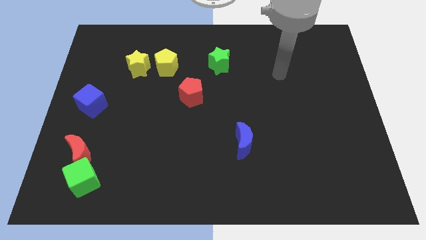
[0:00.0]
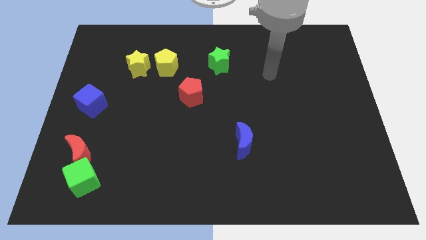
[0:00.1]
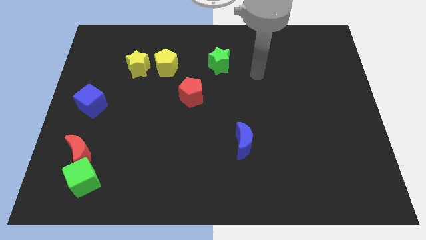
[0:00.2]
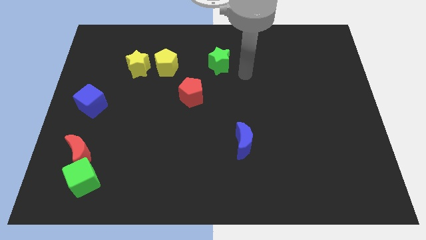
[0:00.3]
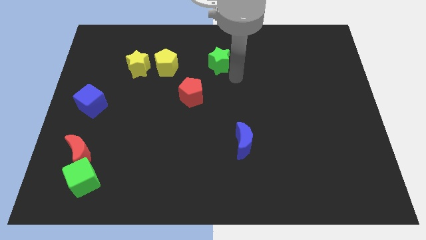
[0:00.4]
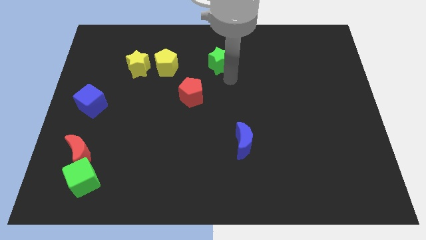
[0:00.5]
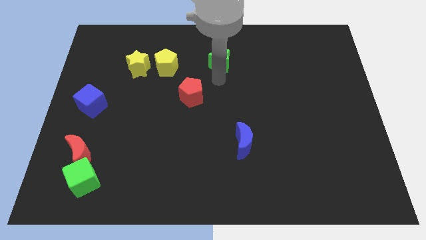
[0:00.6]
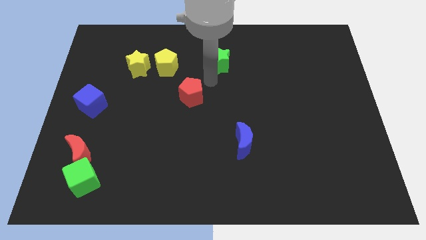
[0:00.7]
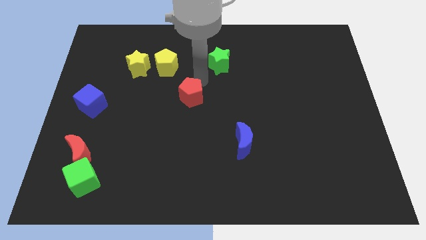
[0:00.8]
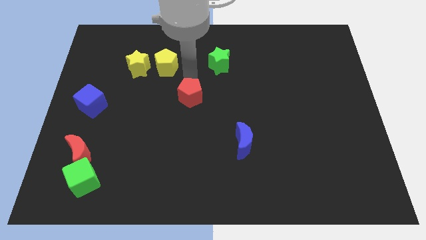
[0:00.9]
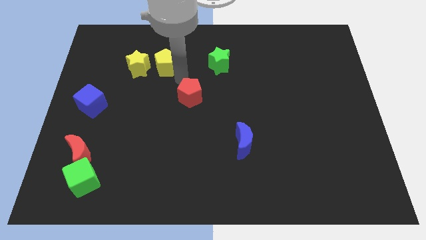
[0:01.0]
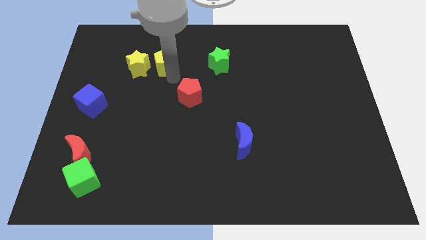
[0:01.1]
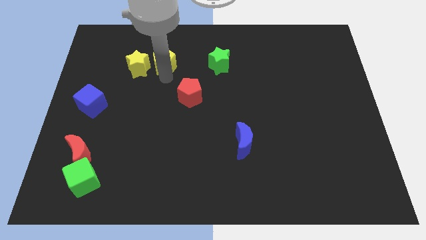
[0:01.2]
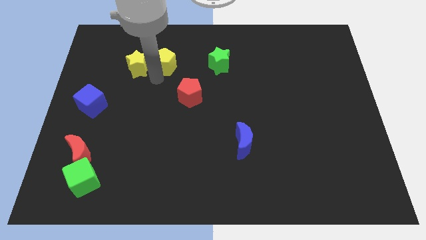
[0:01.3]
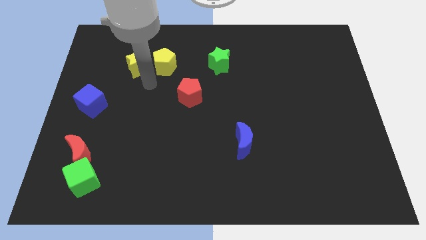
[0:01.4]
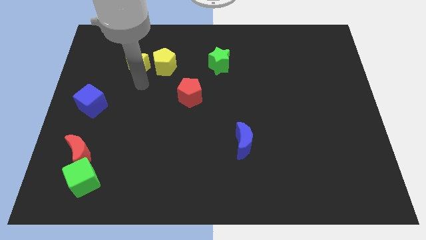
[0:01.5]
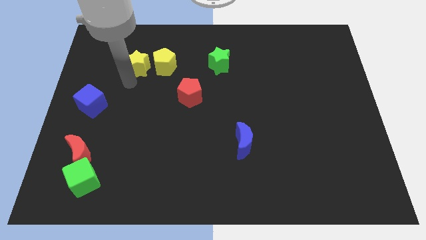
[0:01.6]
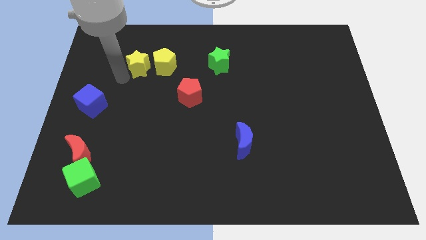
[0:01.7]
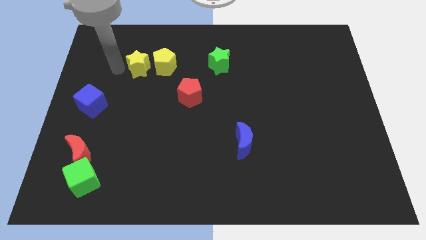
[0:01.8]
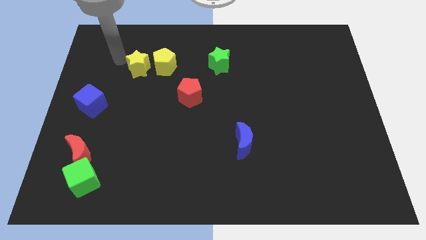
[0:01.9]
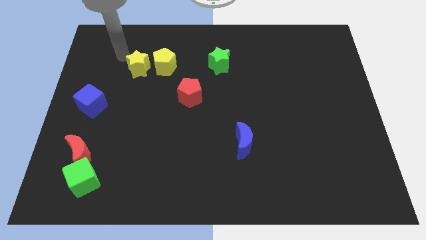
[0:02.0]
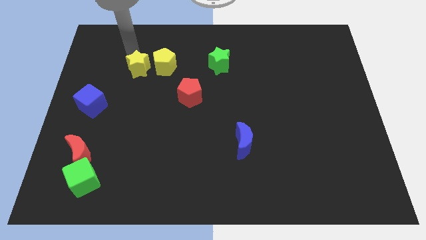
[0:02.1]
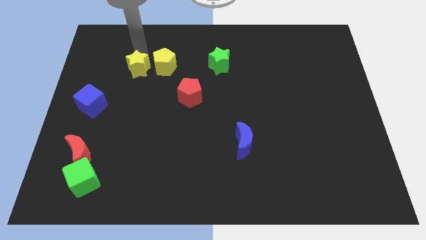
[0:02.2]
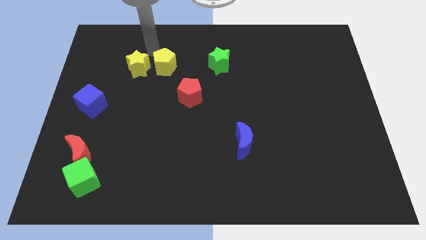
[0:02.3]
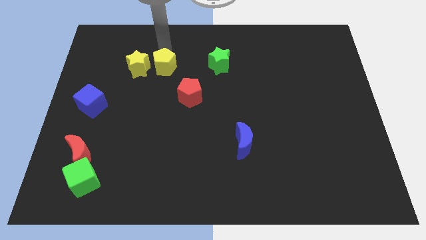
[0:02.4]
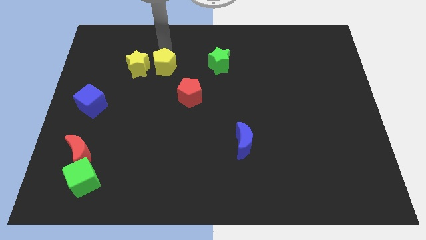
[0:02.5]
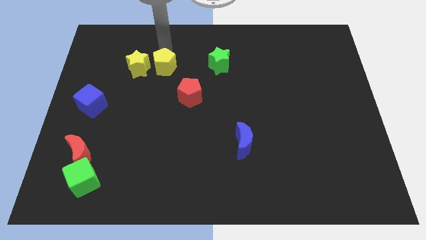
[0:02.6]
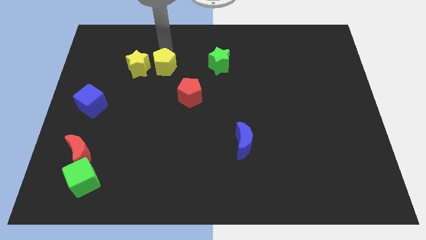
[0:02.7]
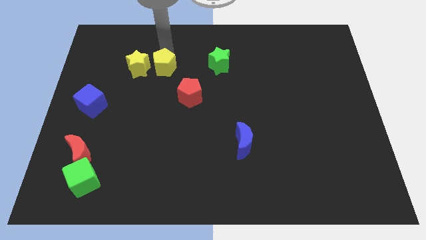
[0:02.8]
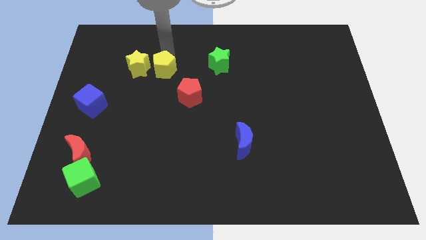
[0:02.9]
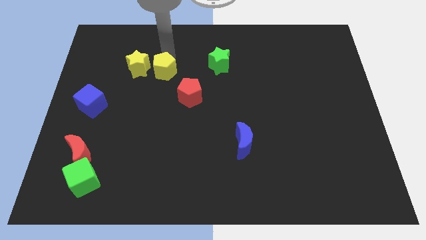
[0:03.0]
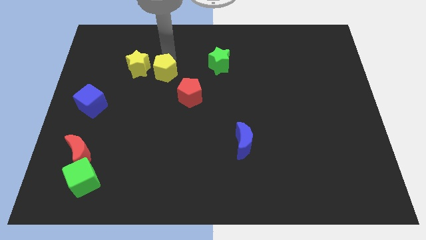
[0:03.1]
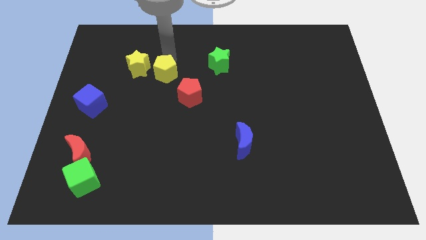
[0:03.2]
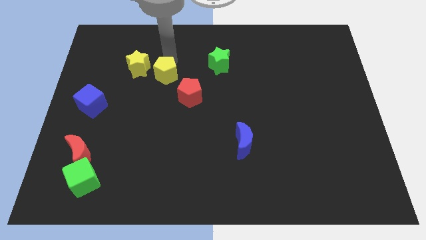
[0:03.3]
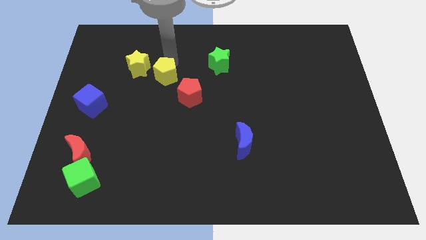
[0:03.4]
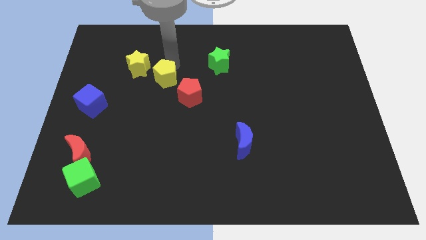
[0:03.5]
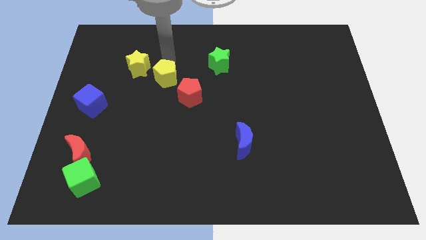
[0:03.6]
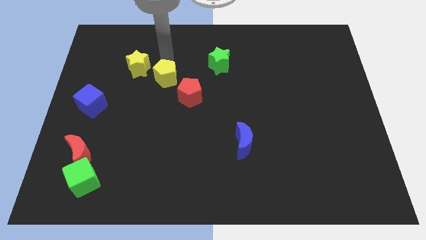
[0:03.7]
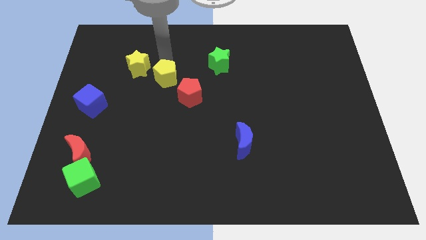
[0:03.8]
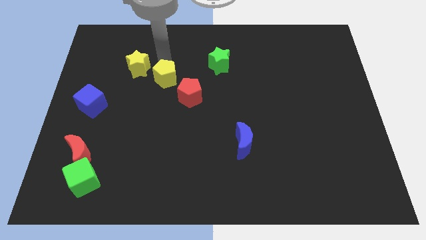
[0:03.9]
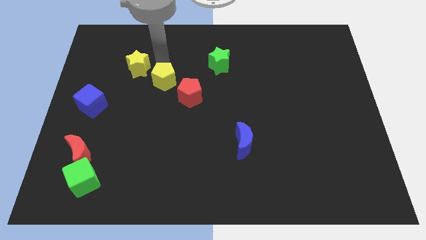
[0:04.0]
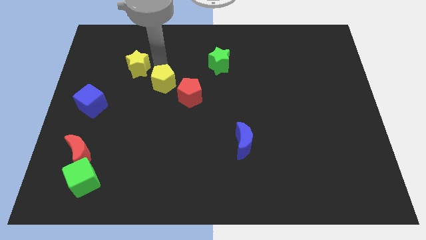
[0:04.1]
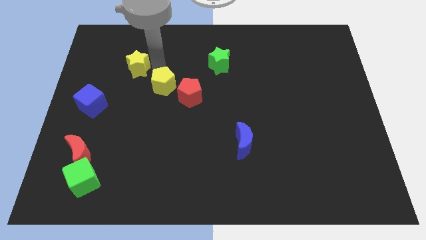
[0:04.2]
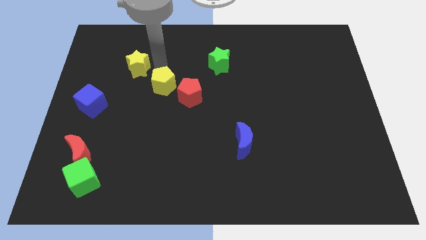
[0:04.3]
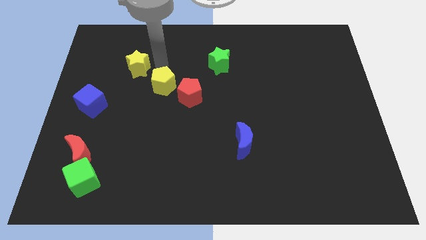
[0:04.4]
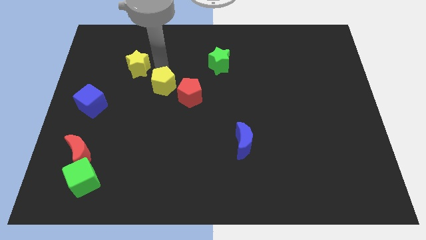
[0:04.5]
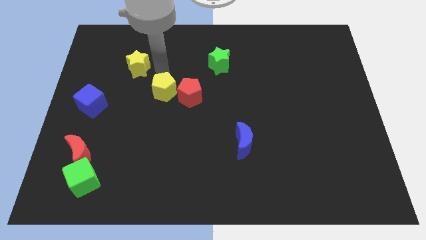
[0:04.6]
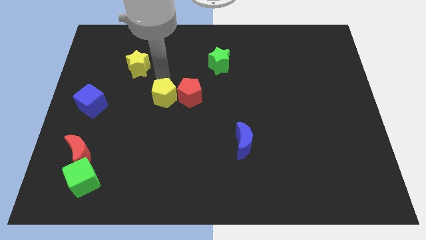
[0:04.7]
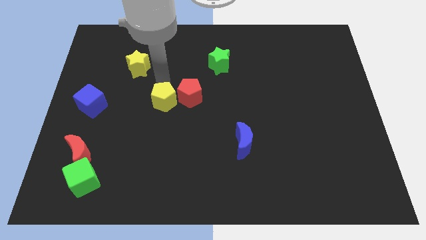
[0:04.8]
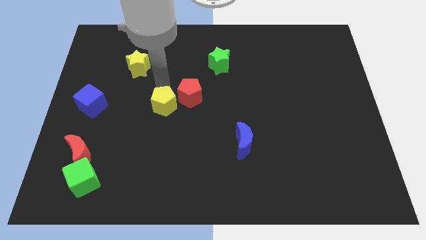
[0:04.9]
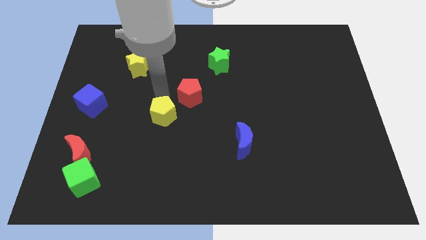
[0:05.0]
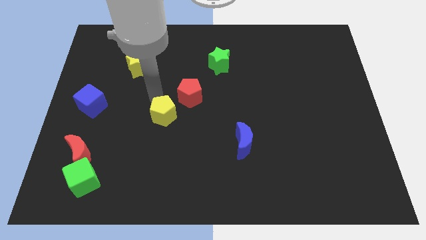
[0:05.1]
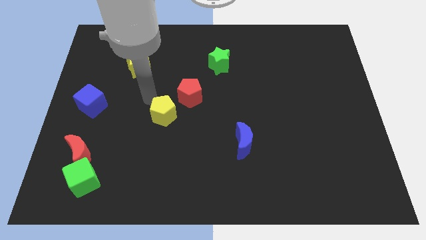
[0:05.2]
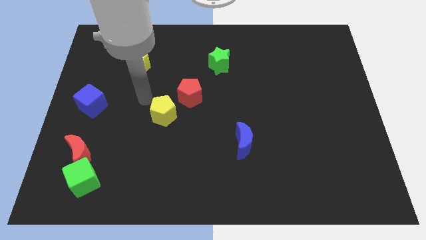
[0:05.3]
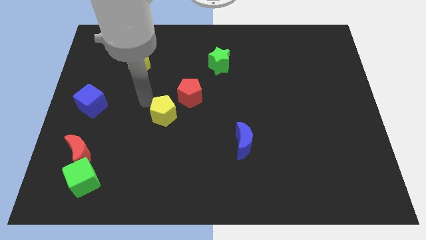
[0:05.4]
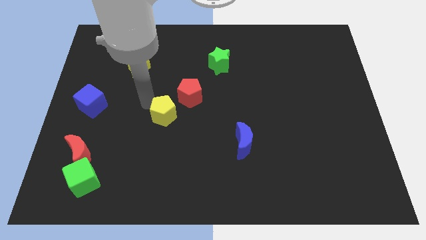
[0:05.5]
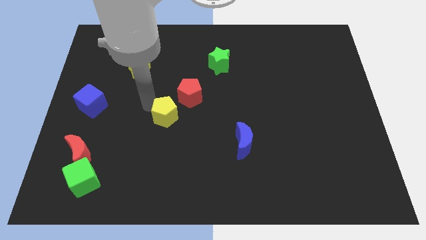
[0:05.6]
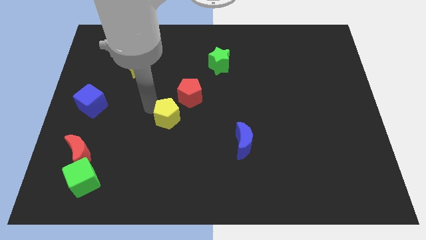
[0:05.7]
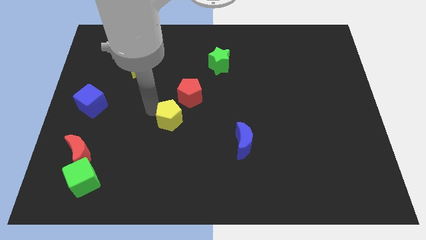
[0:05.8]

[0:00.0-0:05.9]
slide the yellow pentagon to the bottom side of the red pentagon

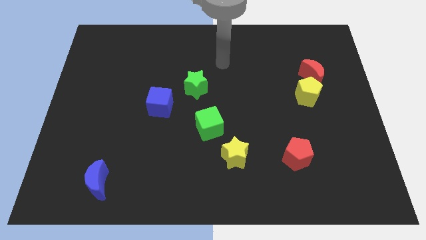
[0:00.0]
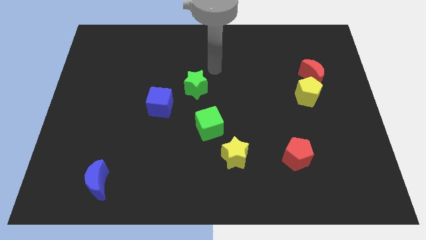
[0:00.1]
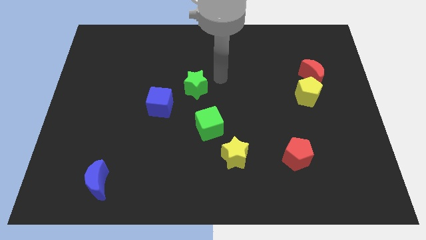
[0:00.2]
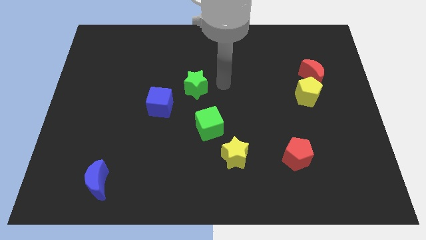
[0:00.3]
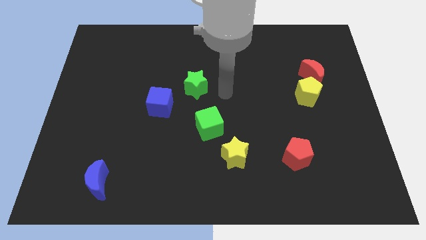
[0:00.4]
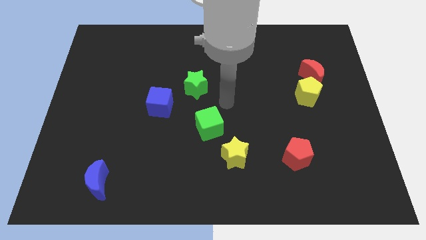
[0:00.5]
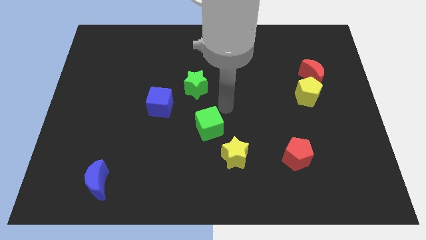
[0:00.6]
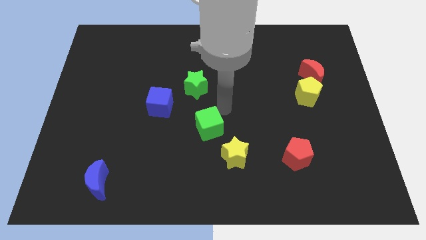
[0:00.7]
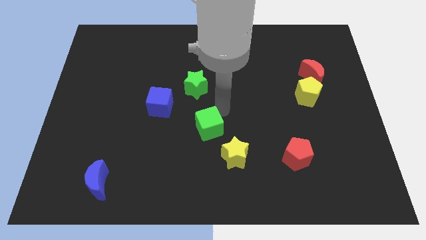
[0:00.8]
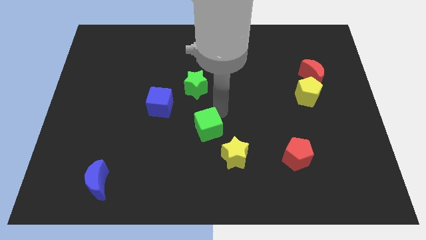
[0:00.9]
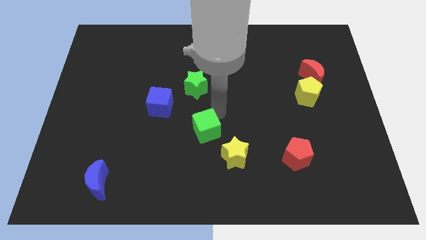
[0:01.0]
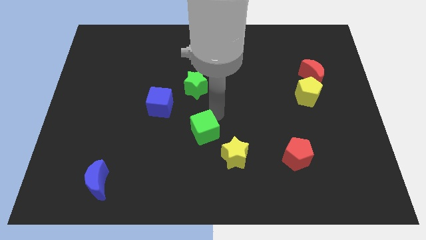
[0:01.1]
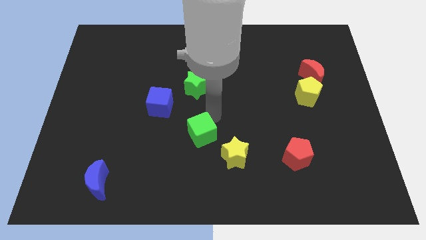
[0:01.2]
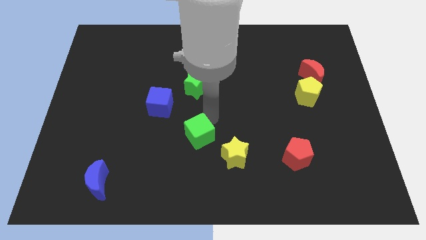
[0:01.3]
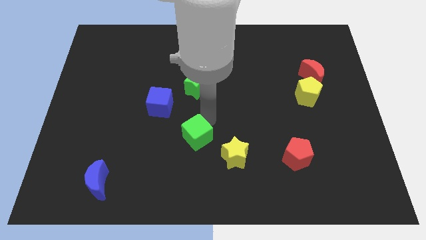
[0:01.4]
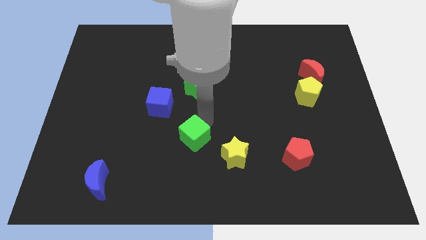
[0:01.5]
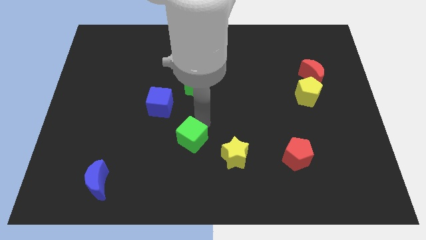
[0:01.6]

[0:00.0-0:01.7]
put the green cube left of the yellow star

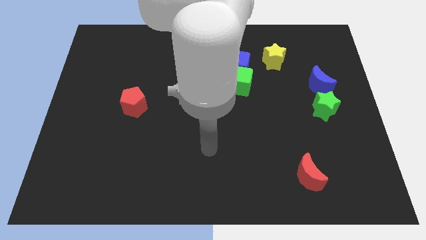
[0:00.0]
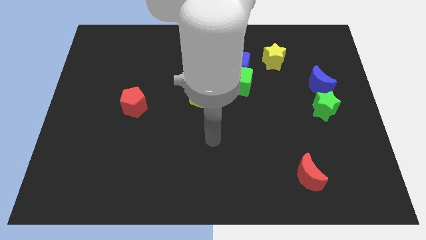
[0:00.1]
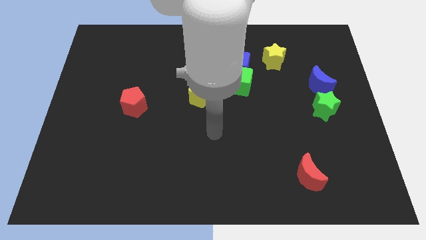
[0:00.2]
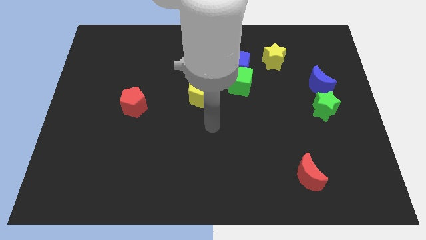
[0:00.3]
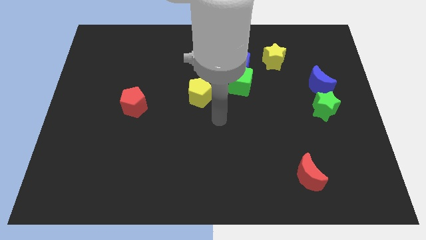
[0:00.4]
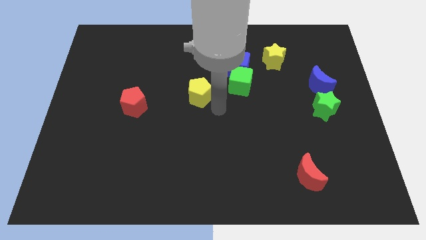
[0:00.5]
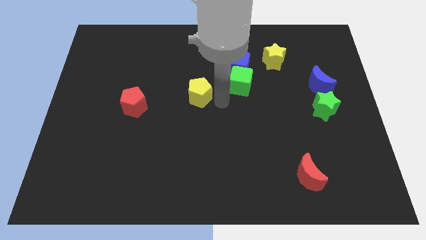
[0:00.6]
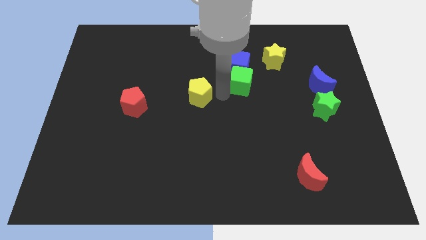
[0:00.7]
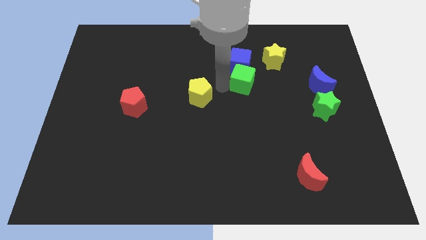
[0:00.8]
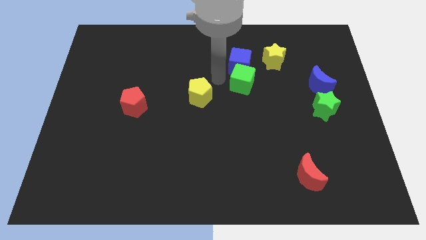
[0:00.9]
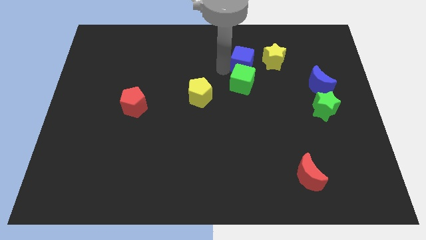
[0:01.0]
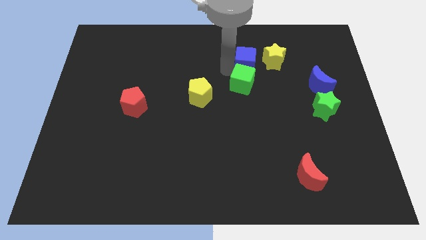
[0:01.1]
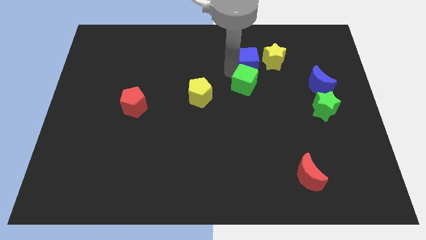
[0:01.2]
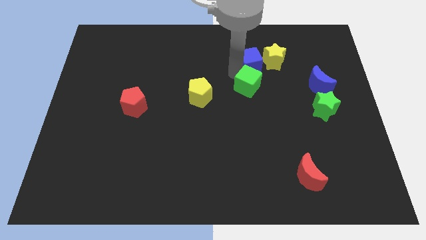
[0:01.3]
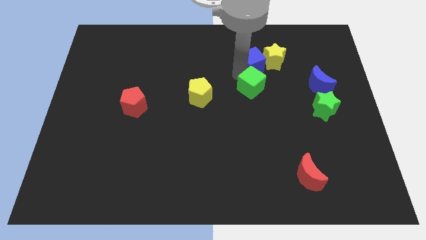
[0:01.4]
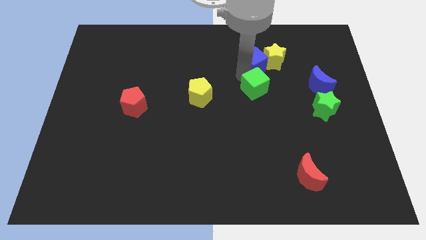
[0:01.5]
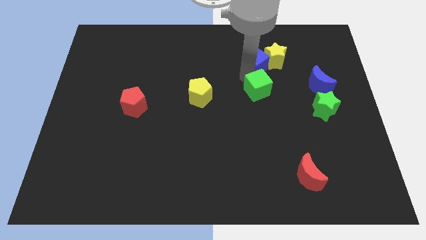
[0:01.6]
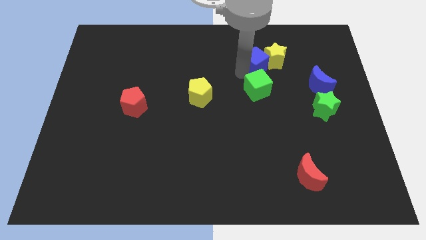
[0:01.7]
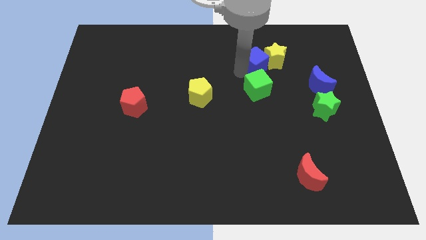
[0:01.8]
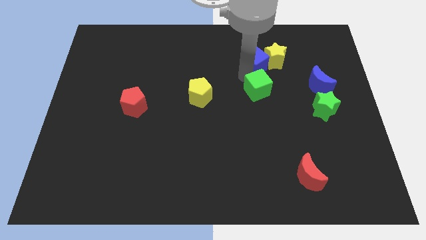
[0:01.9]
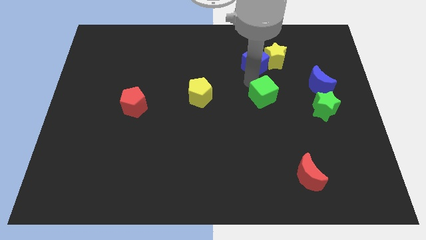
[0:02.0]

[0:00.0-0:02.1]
slide the green cube left of the green star
